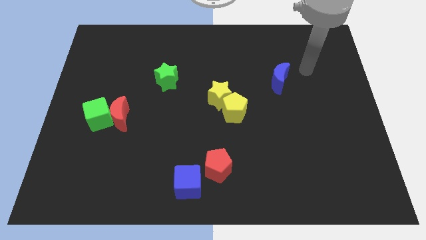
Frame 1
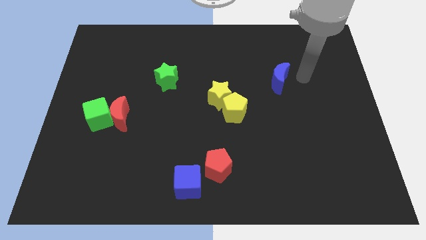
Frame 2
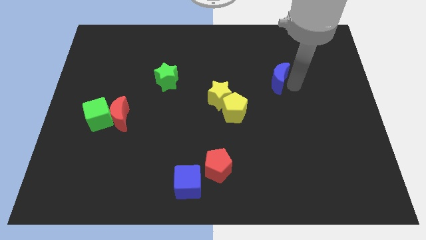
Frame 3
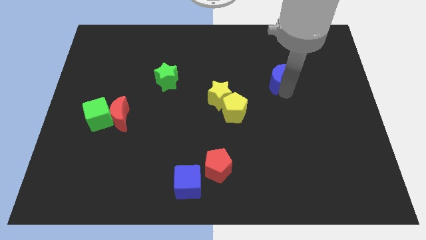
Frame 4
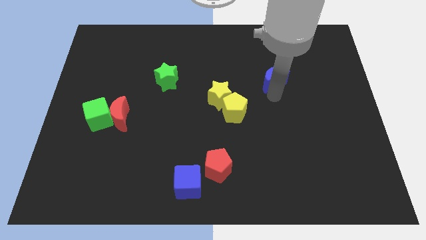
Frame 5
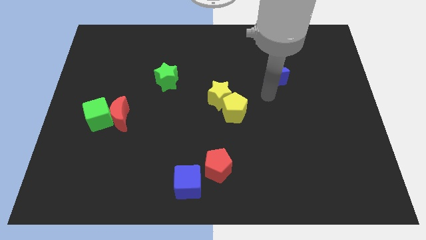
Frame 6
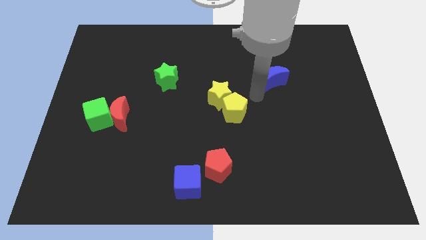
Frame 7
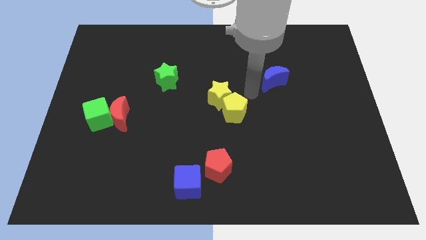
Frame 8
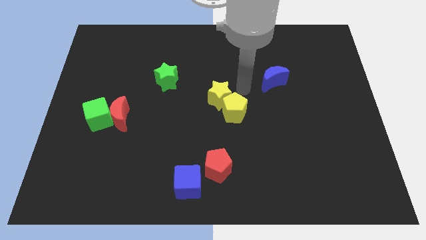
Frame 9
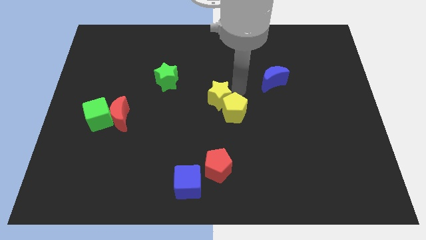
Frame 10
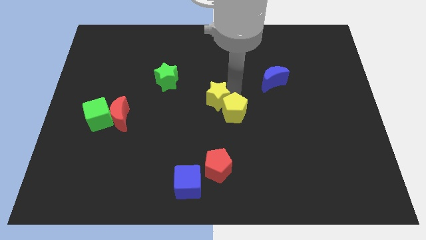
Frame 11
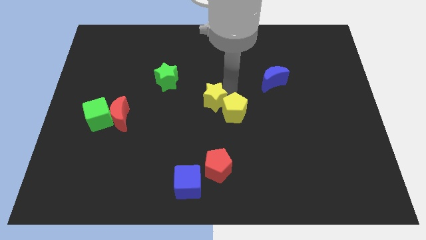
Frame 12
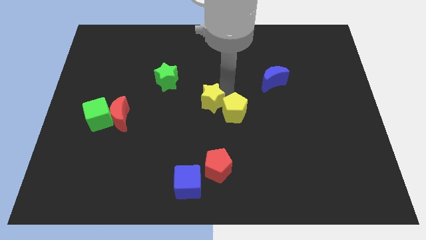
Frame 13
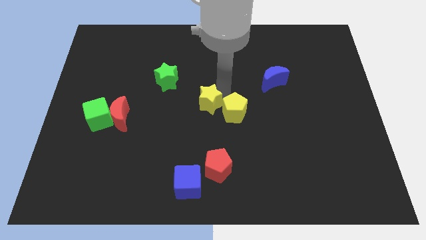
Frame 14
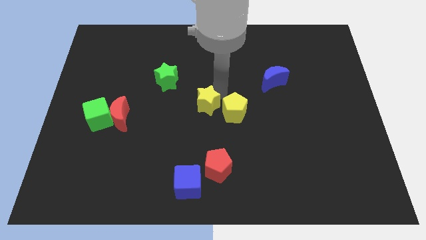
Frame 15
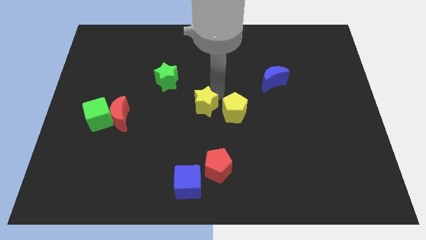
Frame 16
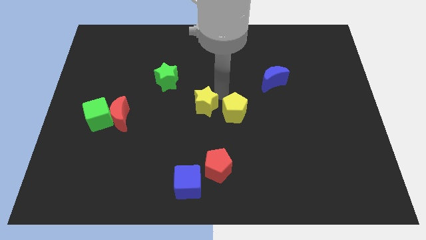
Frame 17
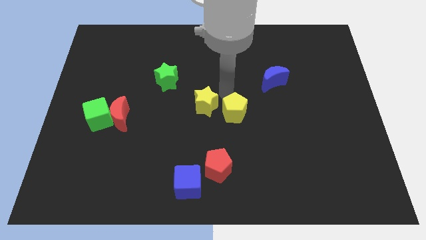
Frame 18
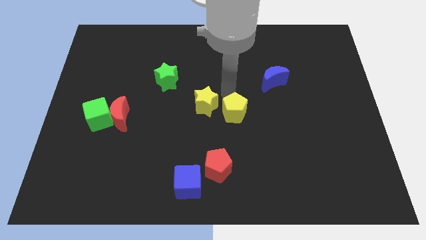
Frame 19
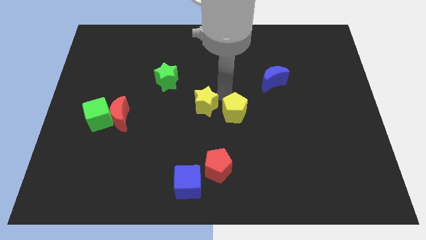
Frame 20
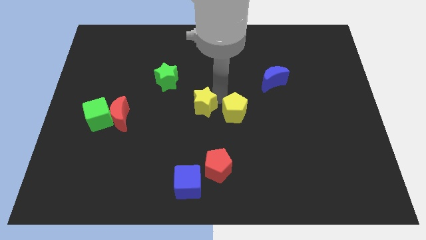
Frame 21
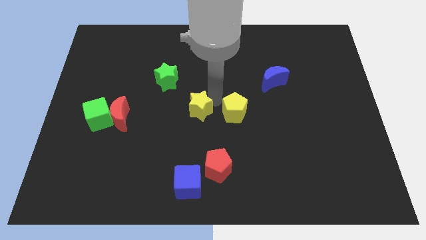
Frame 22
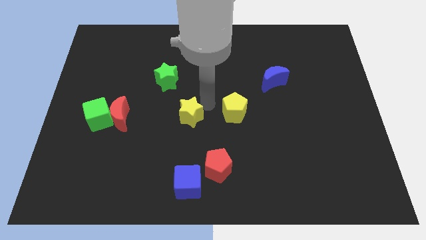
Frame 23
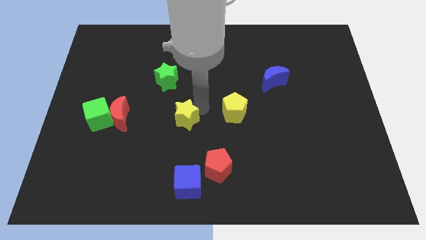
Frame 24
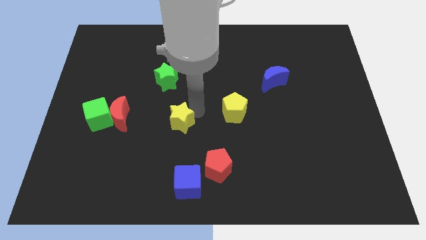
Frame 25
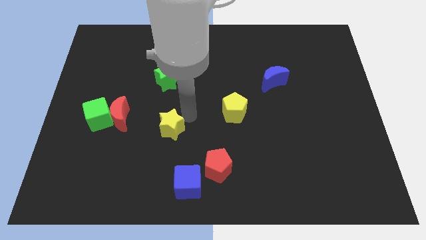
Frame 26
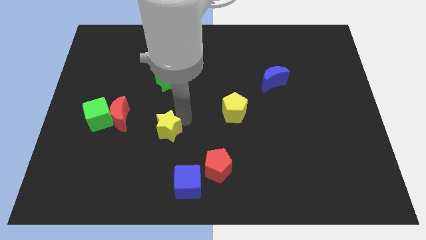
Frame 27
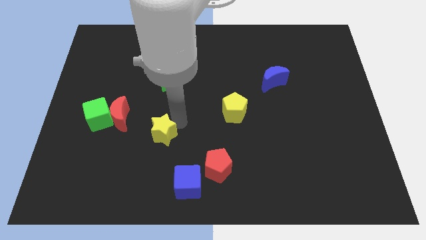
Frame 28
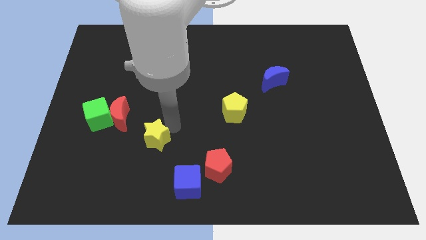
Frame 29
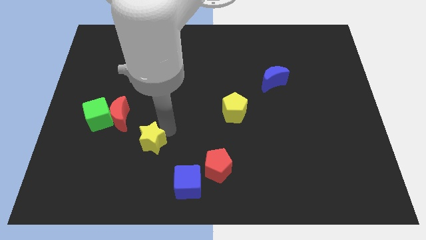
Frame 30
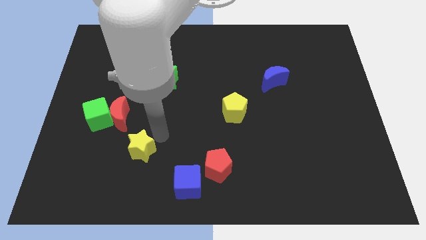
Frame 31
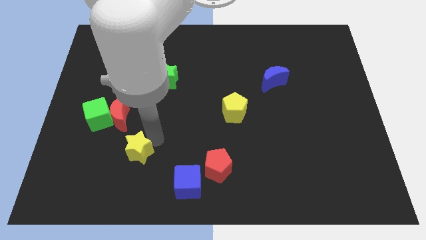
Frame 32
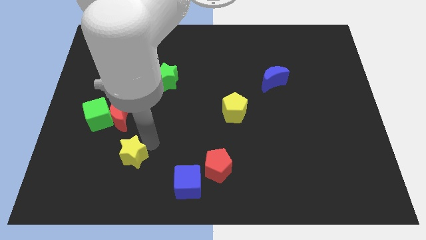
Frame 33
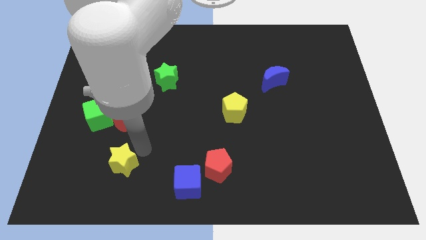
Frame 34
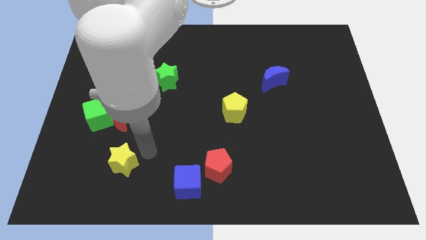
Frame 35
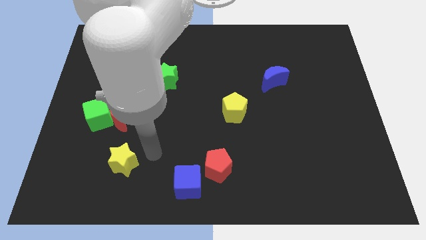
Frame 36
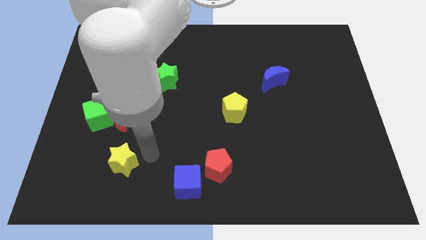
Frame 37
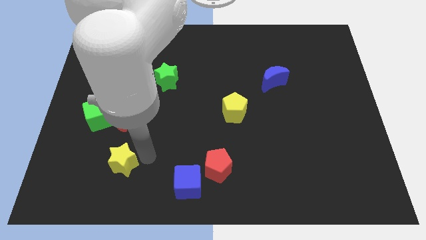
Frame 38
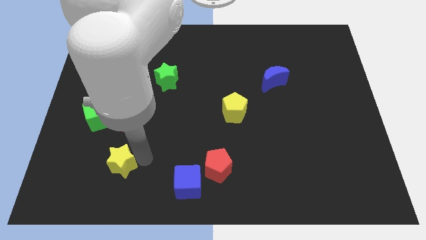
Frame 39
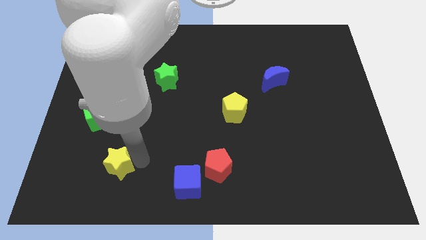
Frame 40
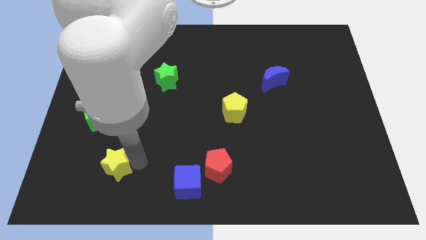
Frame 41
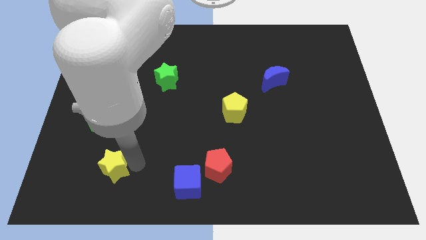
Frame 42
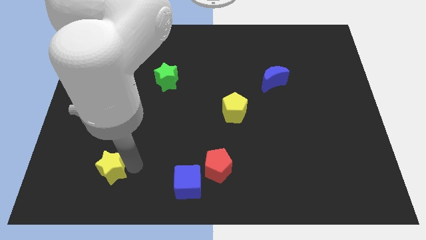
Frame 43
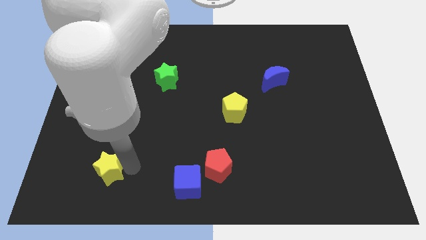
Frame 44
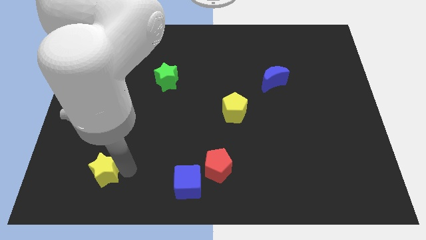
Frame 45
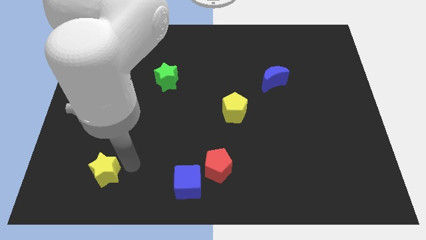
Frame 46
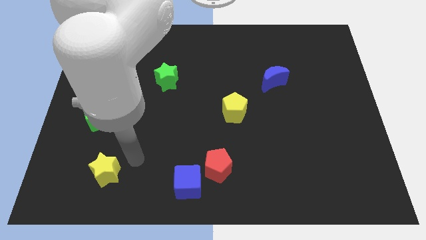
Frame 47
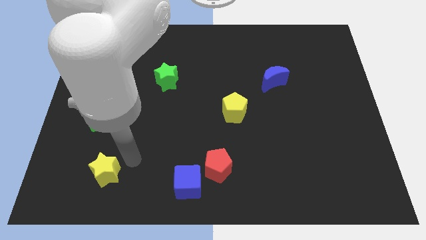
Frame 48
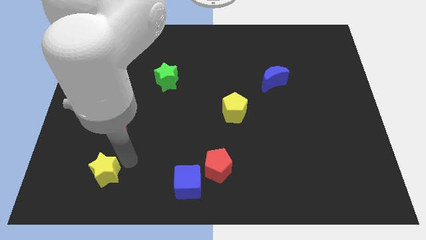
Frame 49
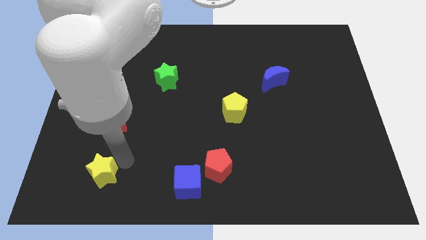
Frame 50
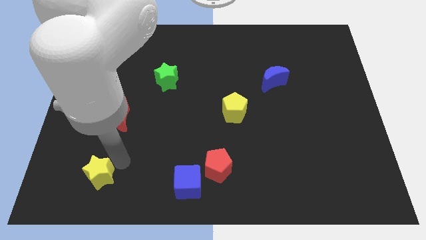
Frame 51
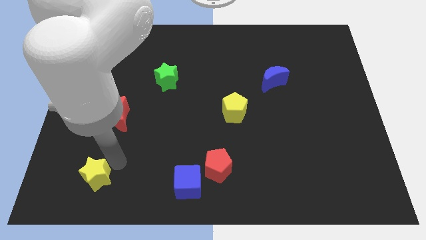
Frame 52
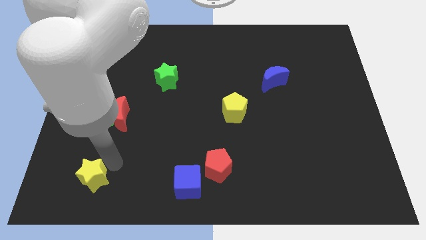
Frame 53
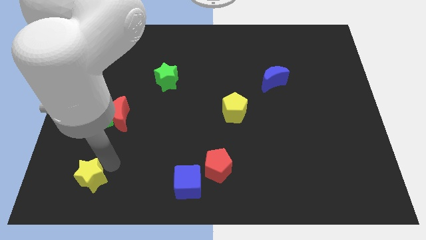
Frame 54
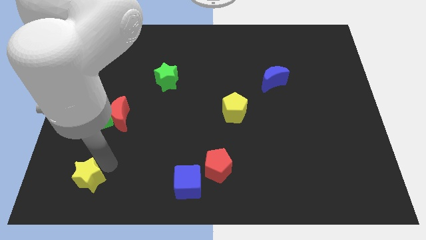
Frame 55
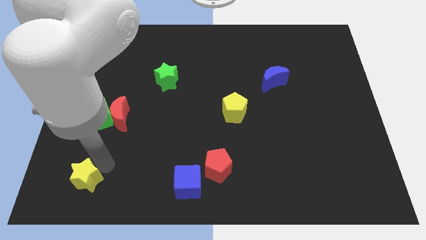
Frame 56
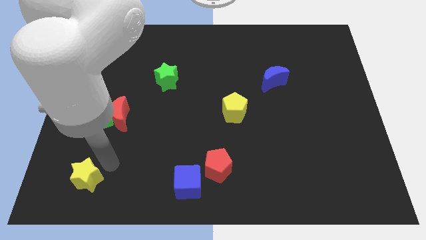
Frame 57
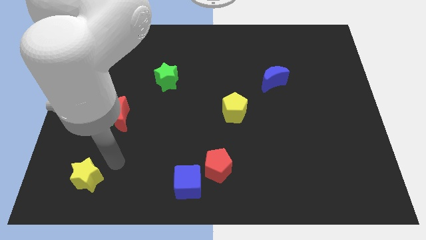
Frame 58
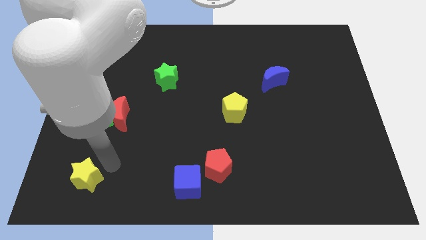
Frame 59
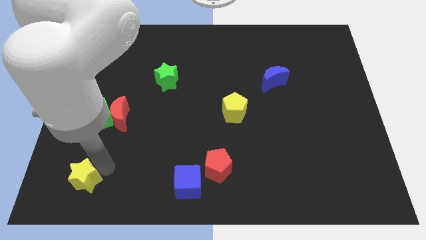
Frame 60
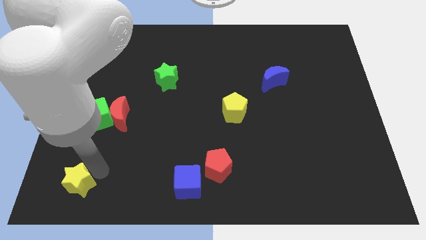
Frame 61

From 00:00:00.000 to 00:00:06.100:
push the yellow star to the bottom left of the board

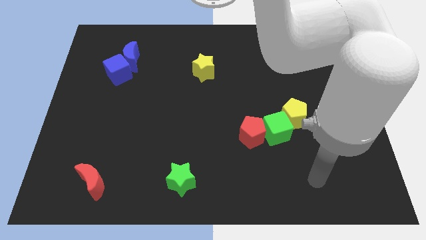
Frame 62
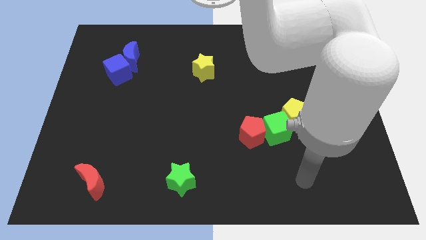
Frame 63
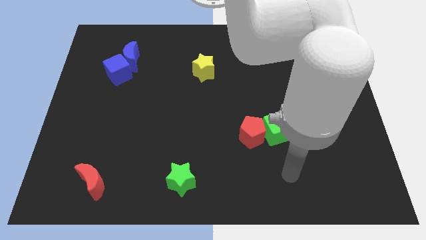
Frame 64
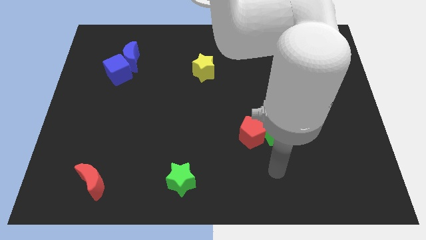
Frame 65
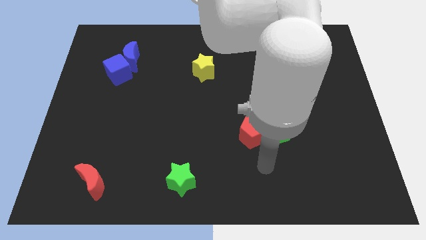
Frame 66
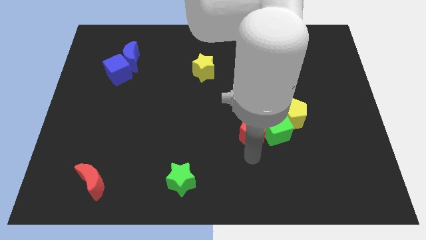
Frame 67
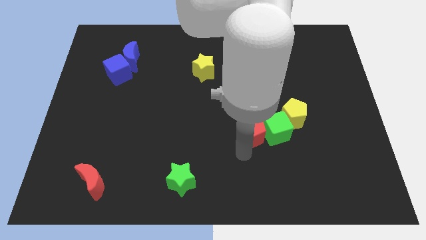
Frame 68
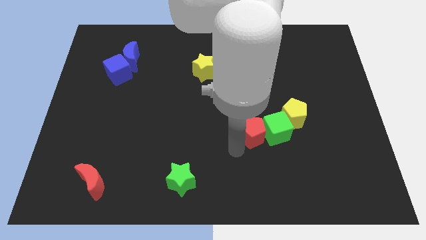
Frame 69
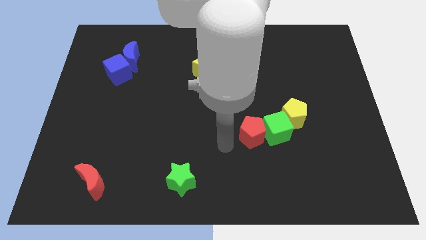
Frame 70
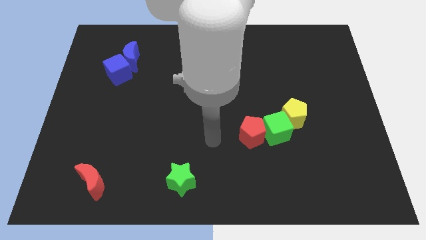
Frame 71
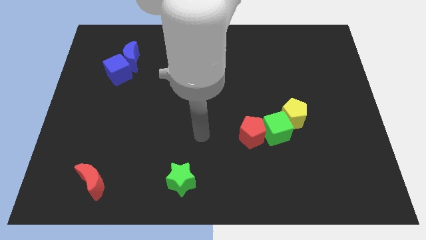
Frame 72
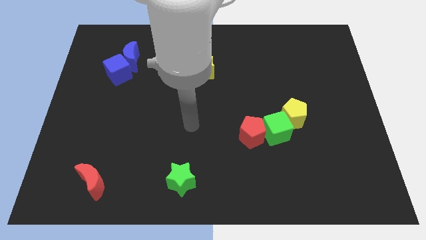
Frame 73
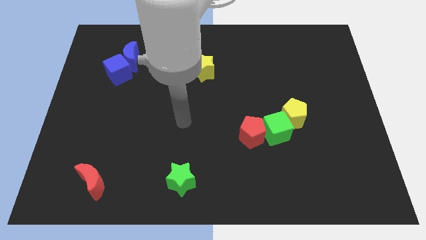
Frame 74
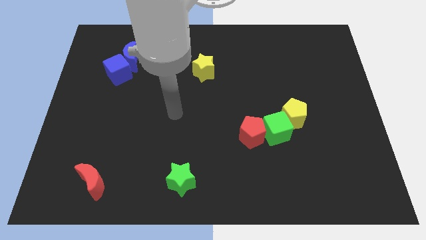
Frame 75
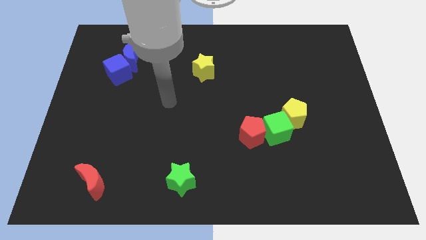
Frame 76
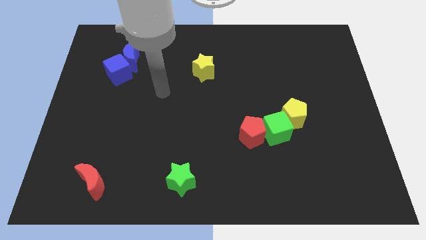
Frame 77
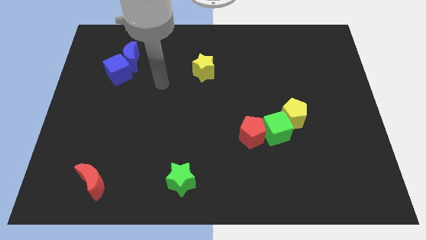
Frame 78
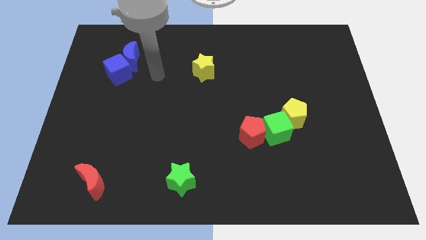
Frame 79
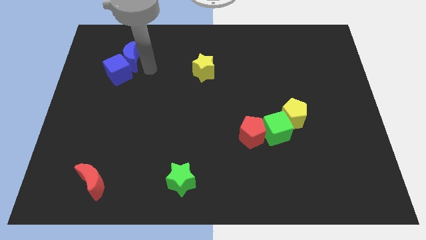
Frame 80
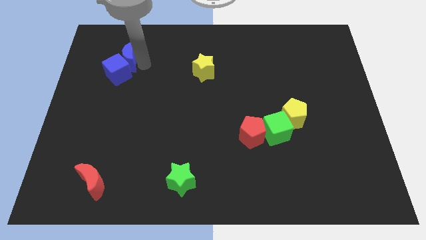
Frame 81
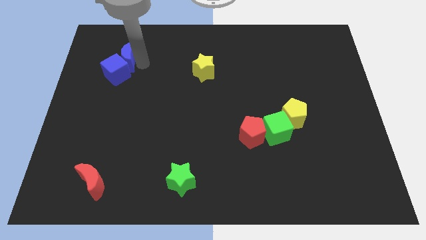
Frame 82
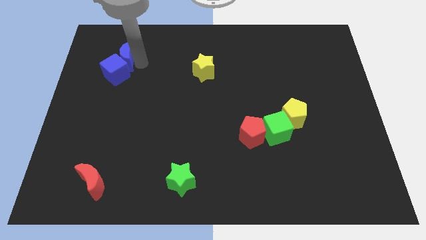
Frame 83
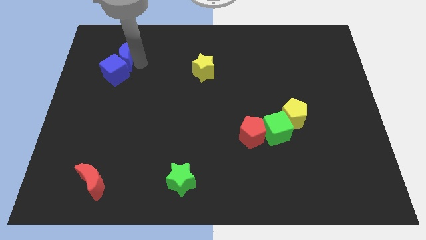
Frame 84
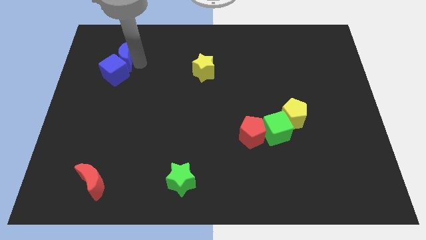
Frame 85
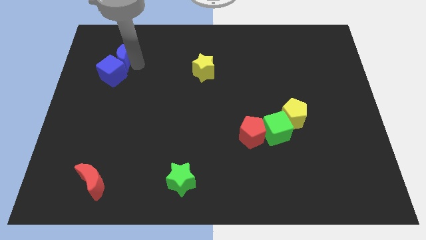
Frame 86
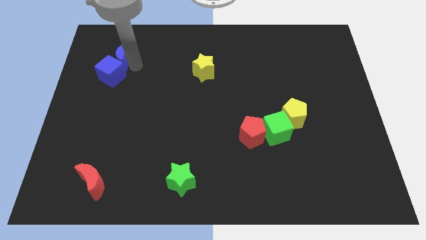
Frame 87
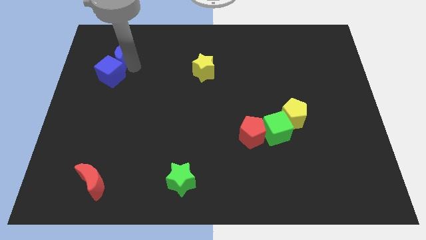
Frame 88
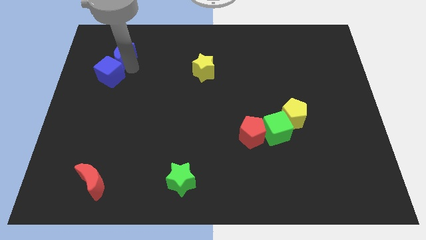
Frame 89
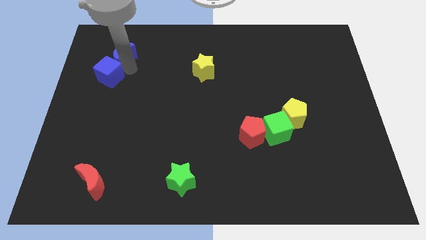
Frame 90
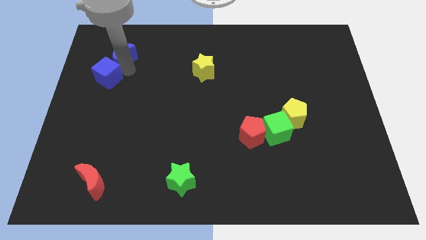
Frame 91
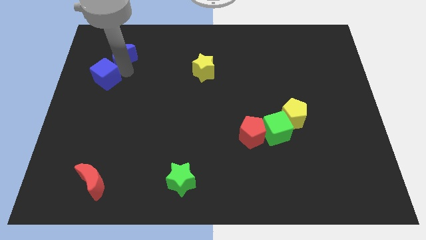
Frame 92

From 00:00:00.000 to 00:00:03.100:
move the blue cube to the center left
